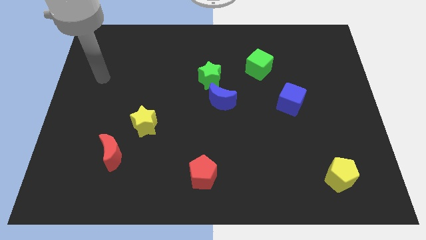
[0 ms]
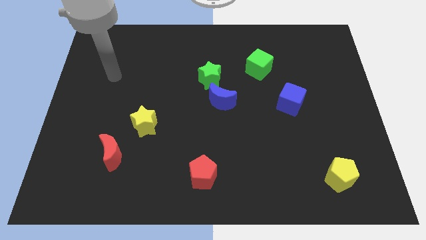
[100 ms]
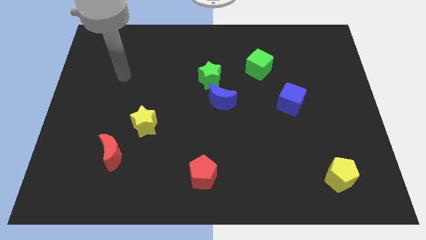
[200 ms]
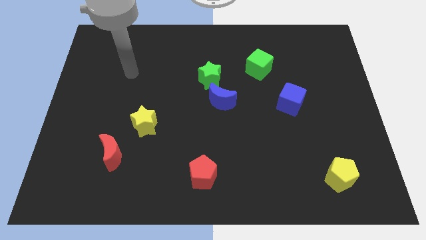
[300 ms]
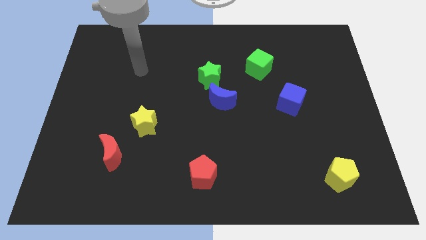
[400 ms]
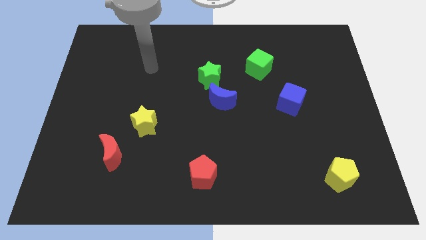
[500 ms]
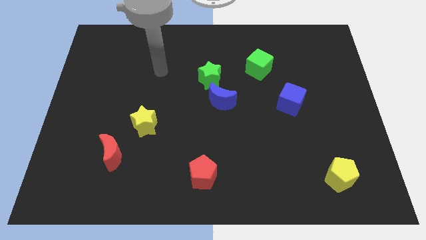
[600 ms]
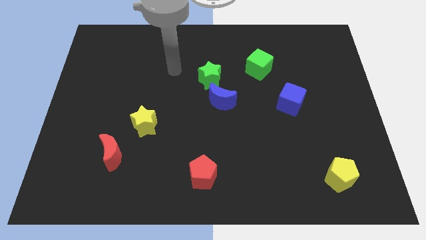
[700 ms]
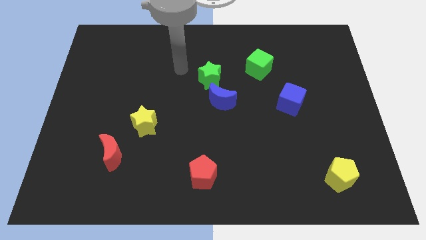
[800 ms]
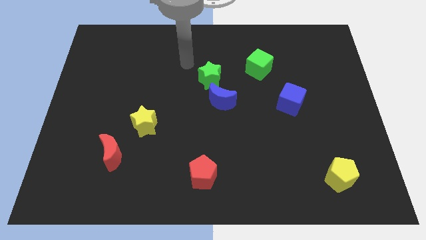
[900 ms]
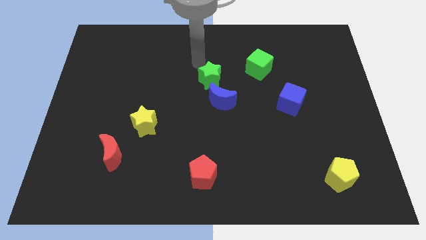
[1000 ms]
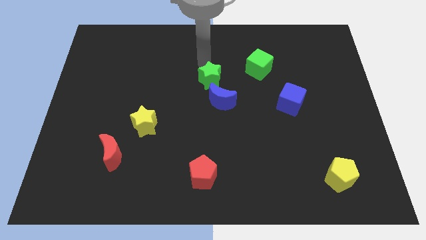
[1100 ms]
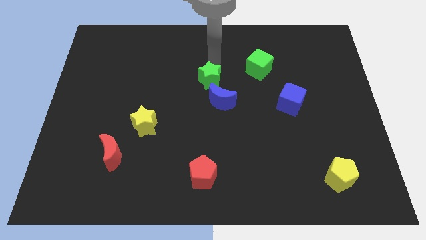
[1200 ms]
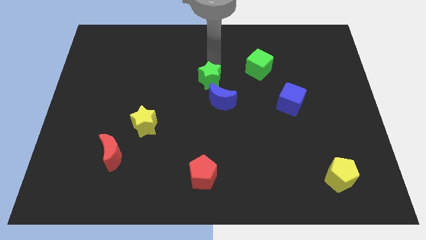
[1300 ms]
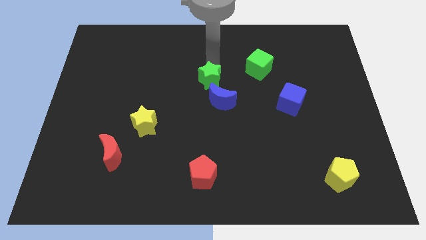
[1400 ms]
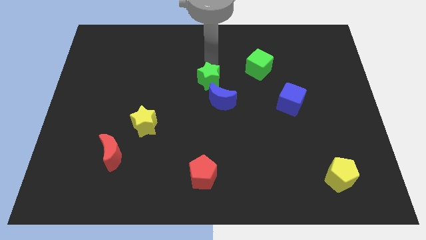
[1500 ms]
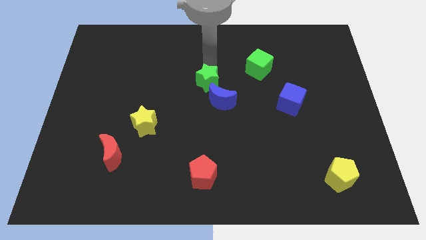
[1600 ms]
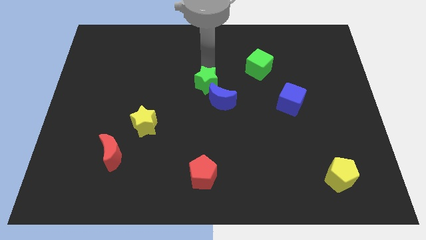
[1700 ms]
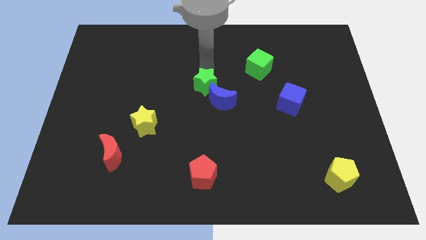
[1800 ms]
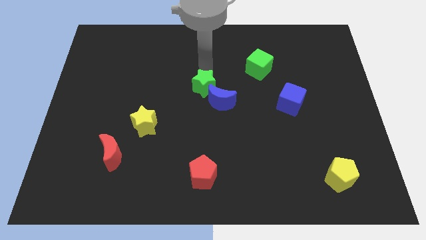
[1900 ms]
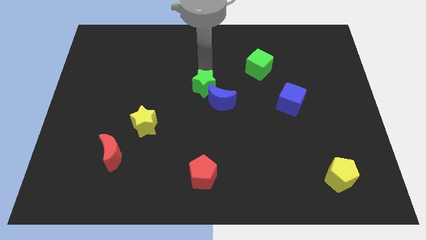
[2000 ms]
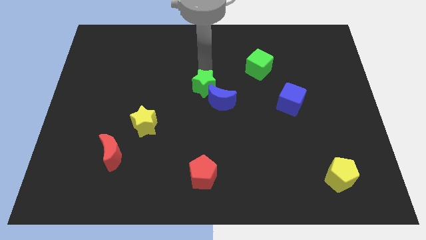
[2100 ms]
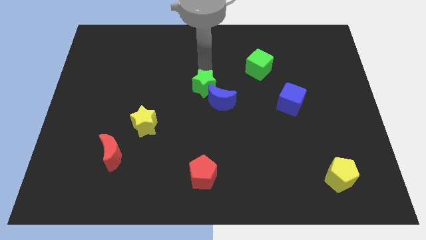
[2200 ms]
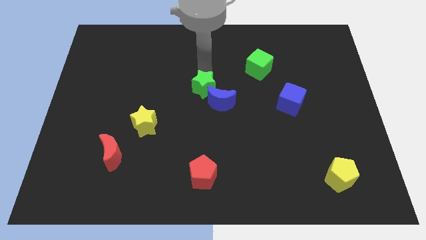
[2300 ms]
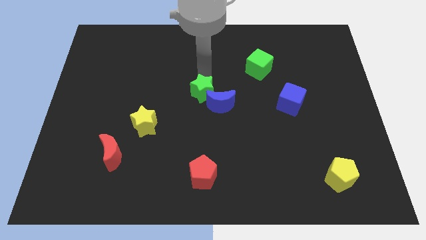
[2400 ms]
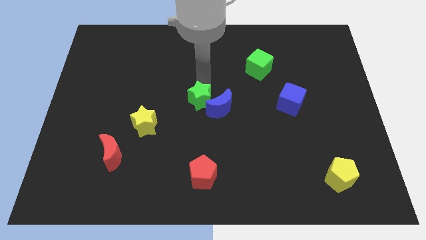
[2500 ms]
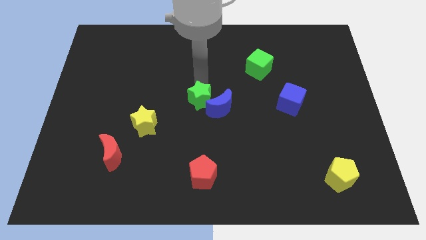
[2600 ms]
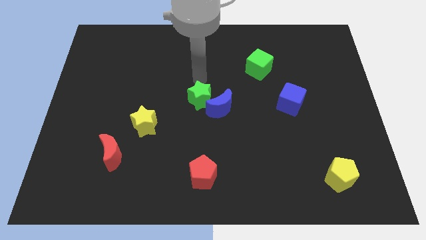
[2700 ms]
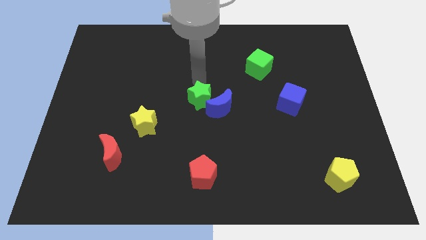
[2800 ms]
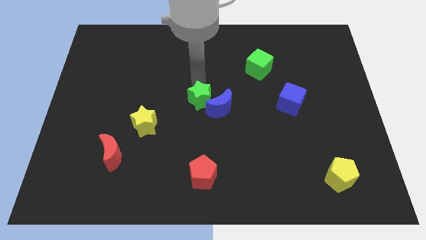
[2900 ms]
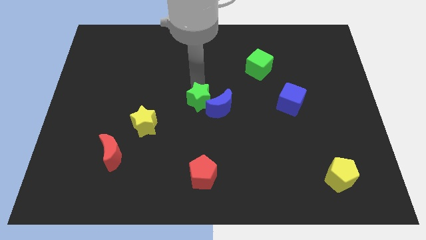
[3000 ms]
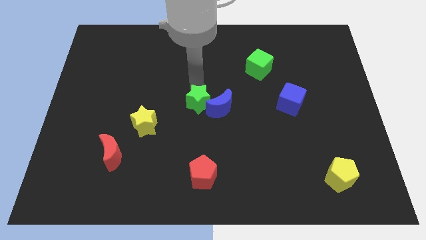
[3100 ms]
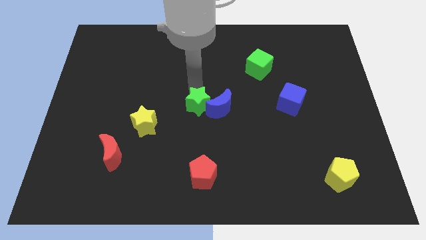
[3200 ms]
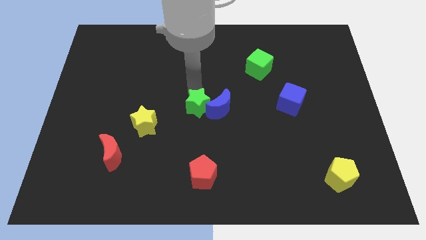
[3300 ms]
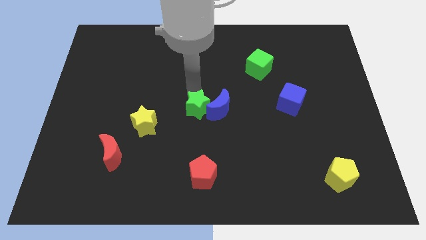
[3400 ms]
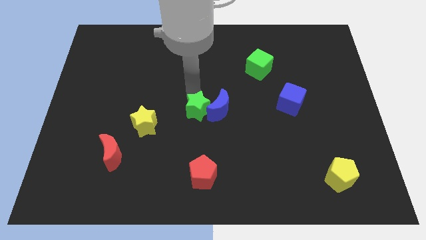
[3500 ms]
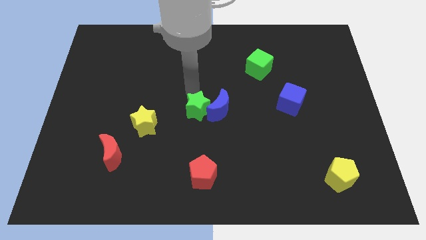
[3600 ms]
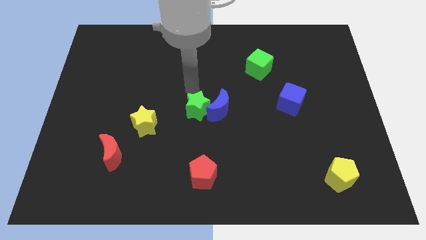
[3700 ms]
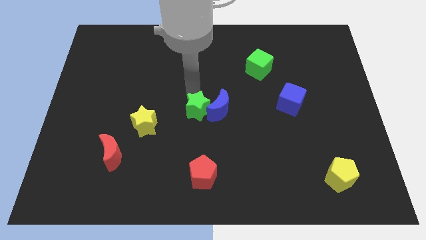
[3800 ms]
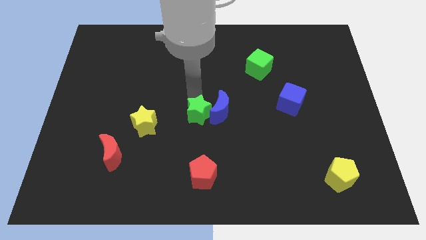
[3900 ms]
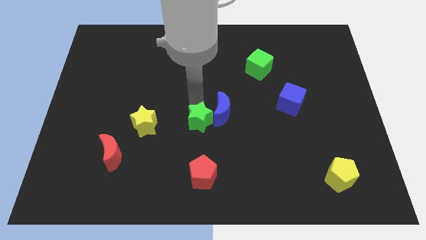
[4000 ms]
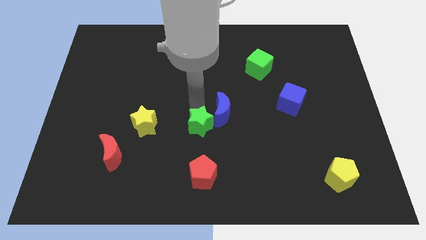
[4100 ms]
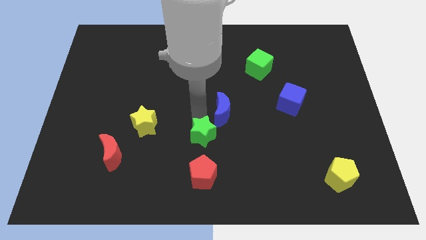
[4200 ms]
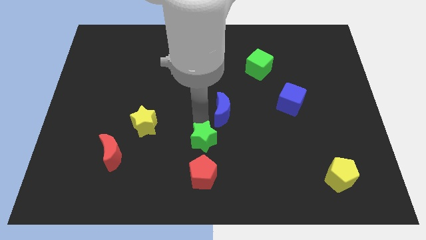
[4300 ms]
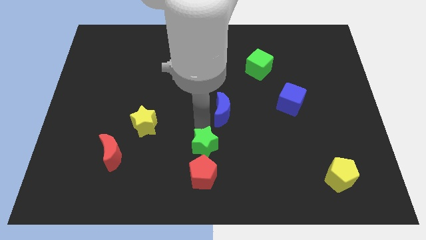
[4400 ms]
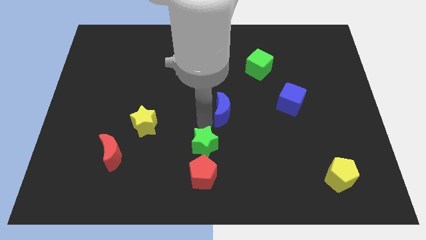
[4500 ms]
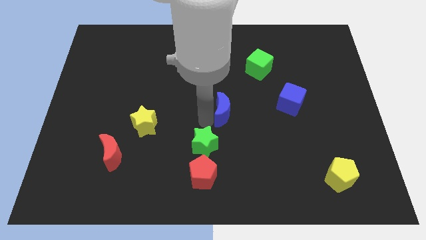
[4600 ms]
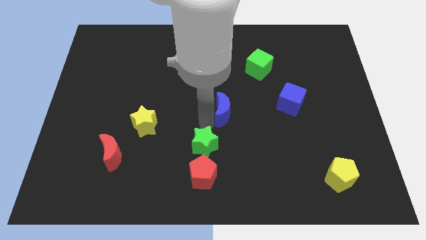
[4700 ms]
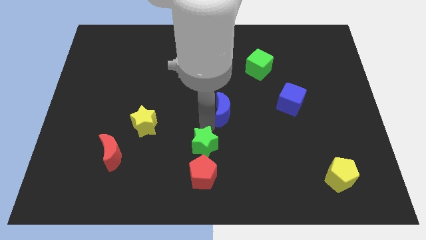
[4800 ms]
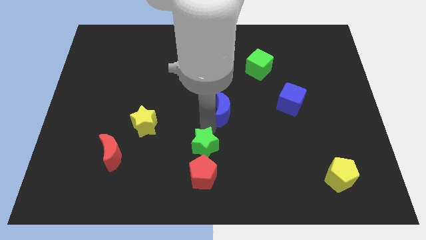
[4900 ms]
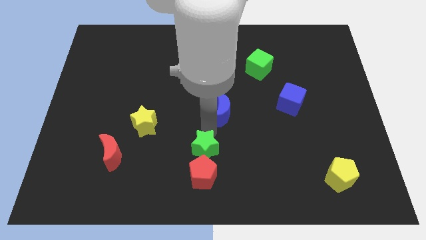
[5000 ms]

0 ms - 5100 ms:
put the green star close to the red pentagon

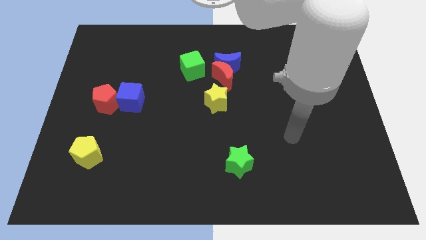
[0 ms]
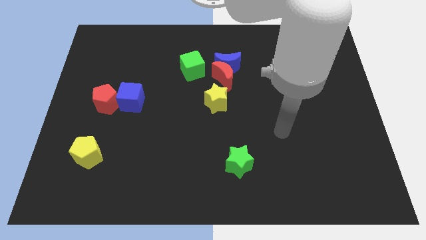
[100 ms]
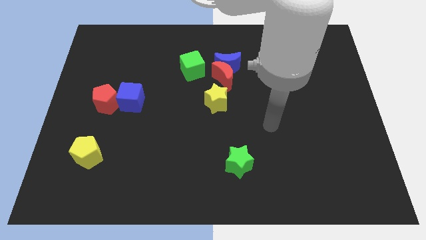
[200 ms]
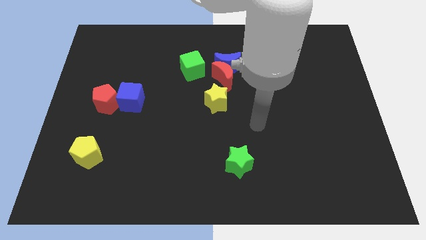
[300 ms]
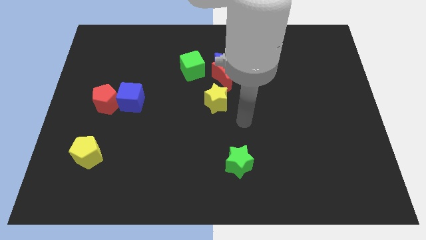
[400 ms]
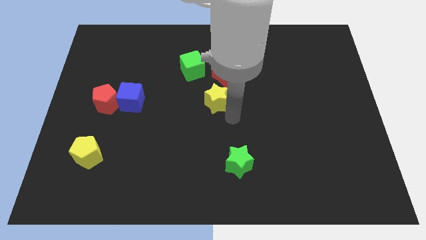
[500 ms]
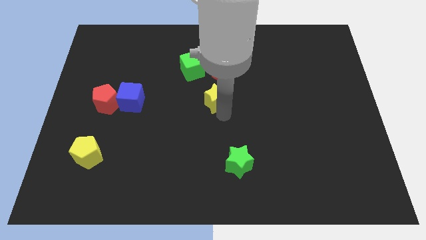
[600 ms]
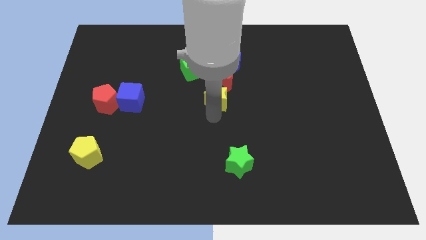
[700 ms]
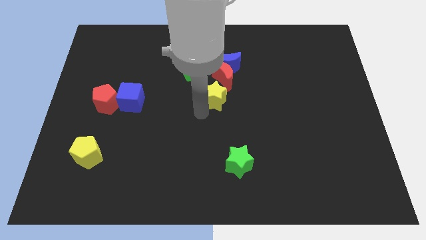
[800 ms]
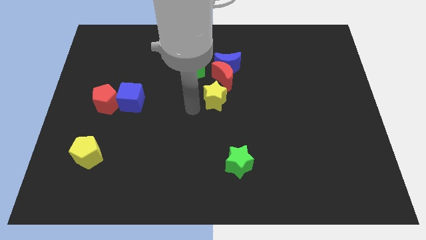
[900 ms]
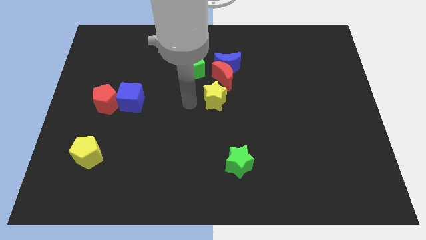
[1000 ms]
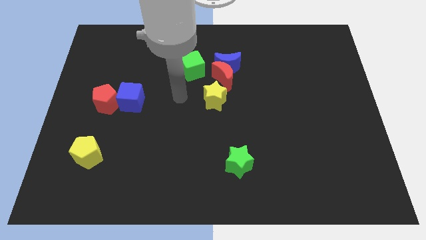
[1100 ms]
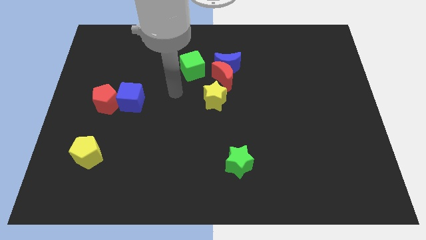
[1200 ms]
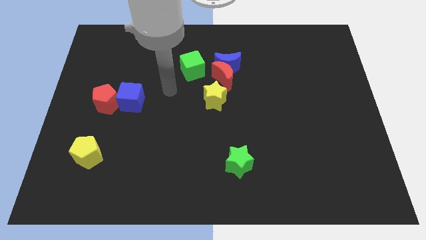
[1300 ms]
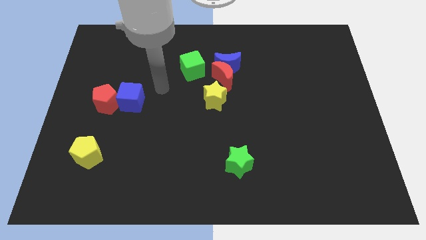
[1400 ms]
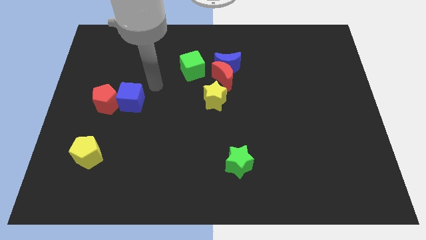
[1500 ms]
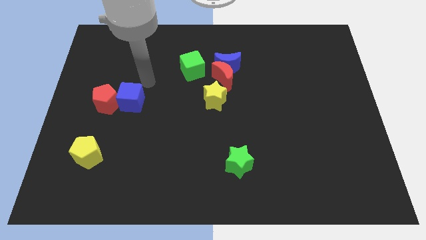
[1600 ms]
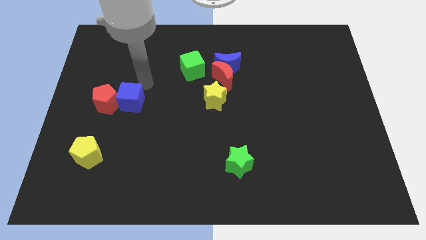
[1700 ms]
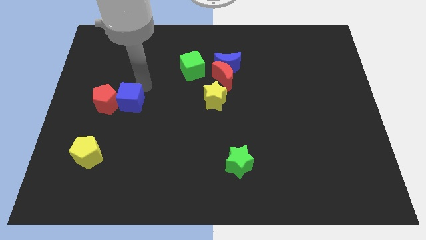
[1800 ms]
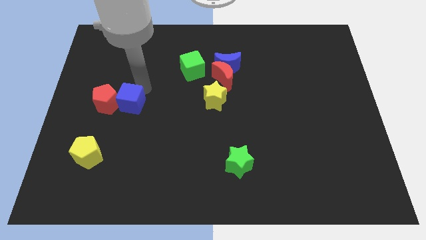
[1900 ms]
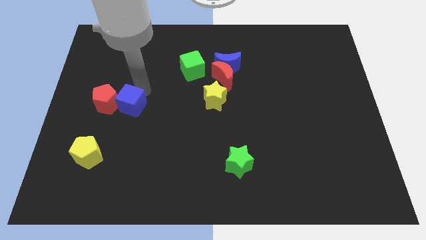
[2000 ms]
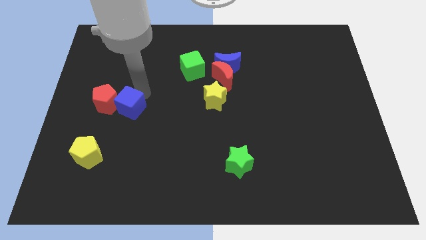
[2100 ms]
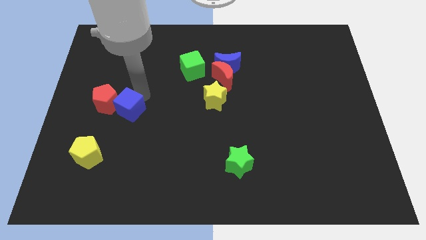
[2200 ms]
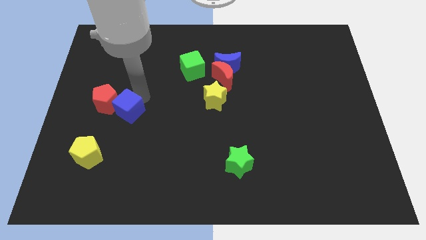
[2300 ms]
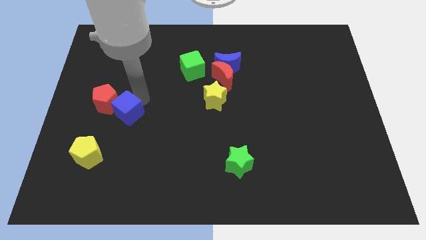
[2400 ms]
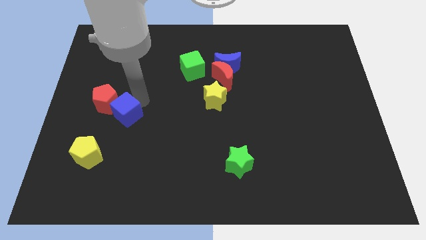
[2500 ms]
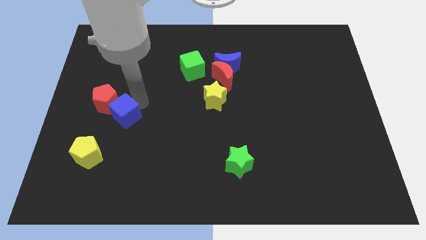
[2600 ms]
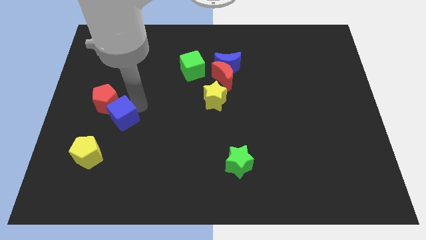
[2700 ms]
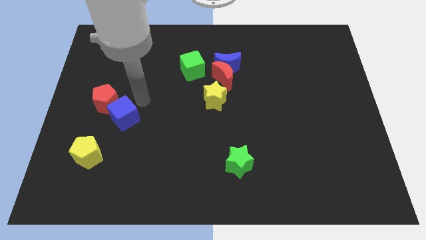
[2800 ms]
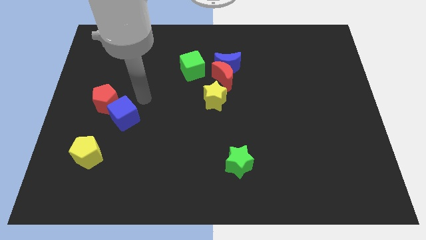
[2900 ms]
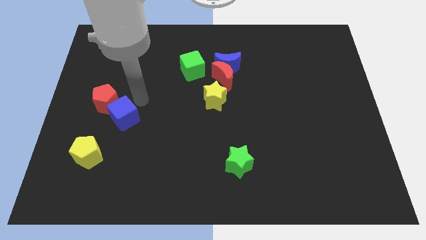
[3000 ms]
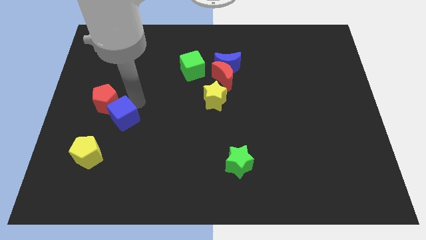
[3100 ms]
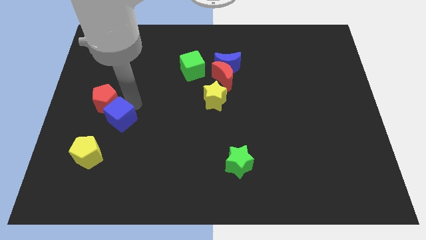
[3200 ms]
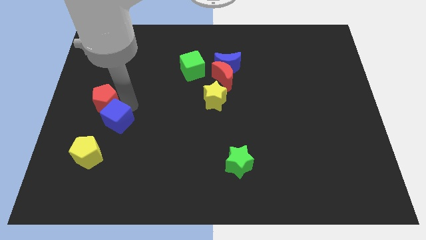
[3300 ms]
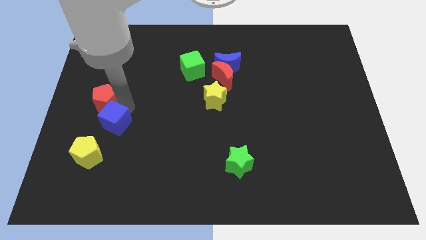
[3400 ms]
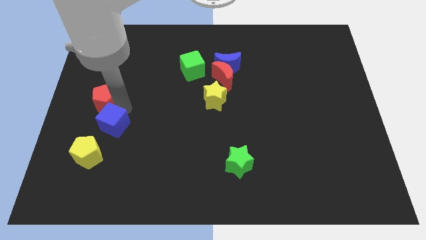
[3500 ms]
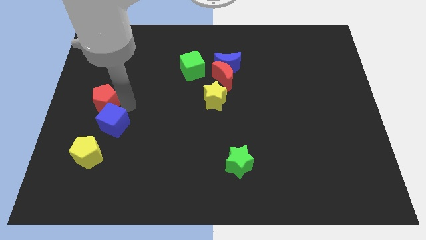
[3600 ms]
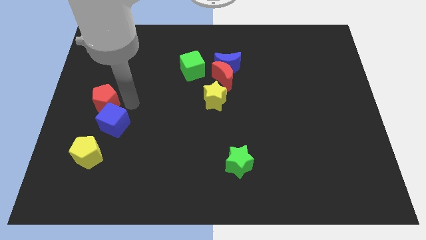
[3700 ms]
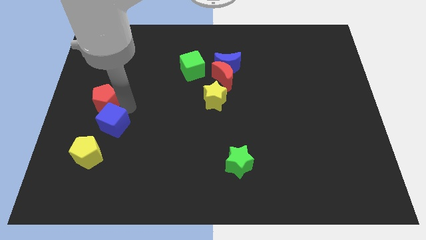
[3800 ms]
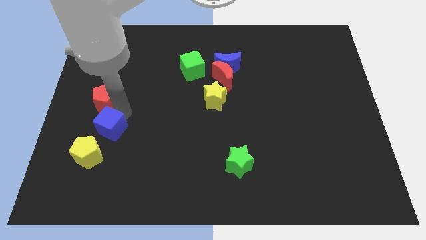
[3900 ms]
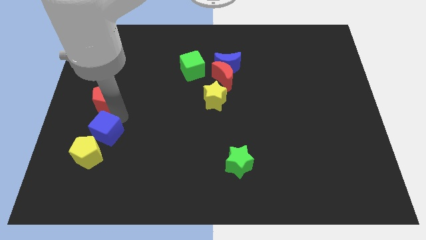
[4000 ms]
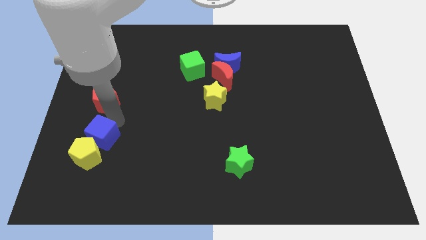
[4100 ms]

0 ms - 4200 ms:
move the blue cube close to the yellow pentagon
